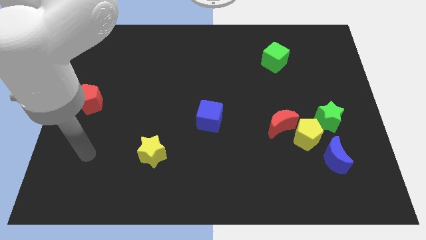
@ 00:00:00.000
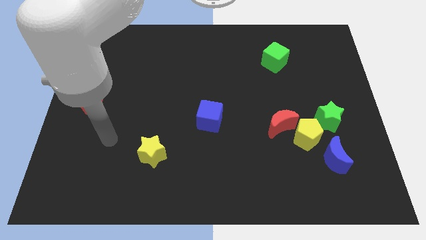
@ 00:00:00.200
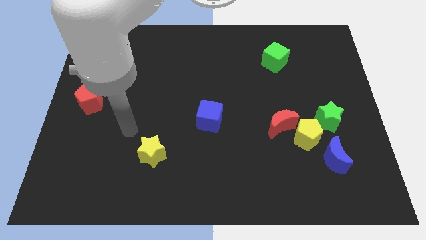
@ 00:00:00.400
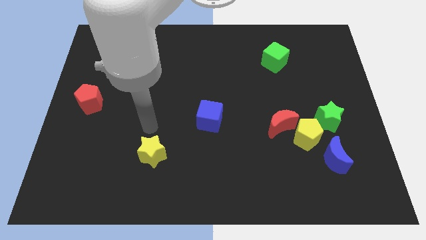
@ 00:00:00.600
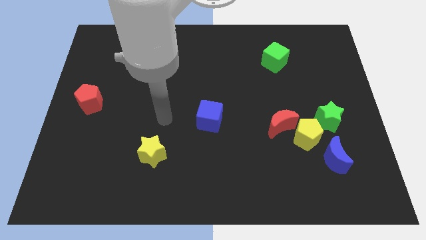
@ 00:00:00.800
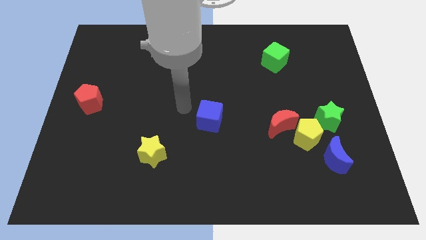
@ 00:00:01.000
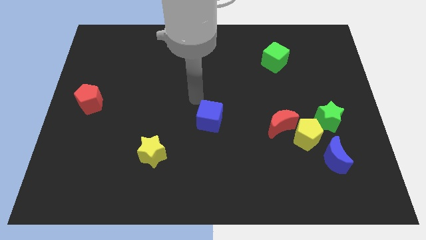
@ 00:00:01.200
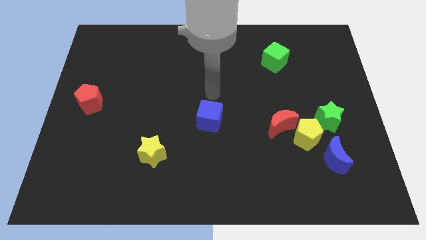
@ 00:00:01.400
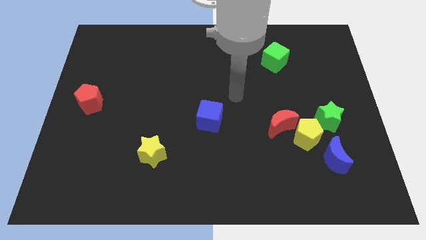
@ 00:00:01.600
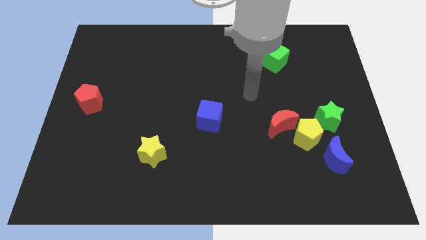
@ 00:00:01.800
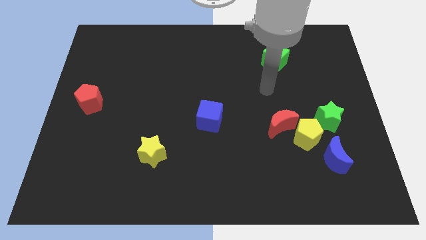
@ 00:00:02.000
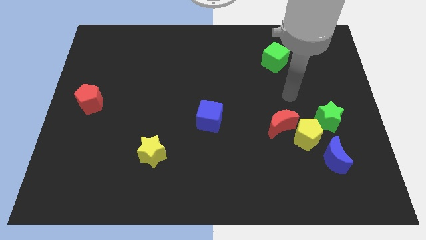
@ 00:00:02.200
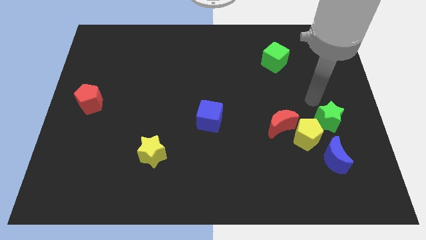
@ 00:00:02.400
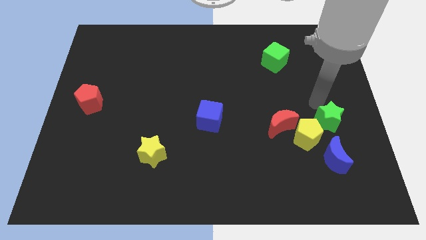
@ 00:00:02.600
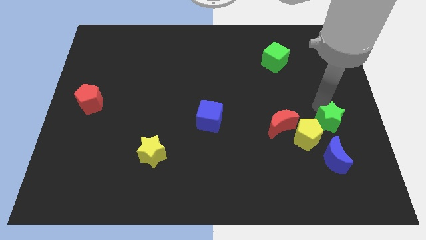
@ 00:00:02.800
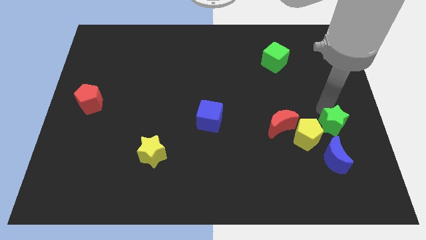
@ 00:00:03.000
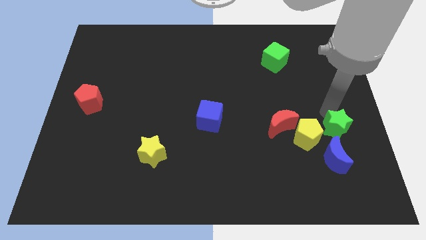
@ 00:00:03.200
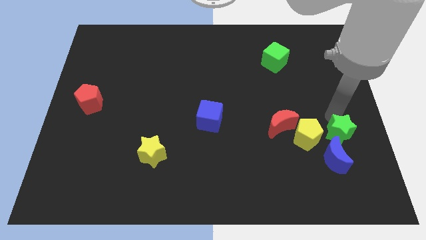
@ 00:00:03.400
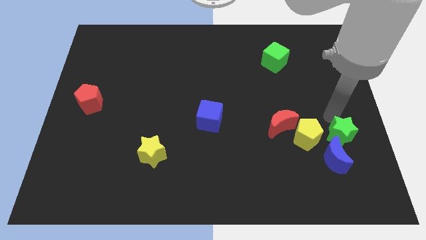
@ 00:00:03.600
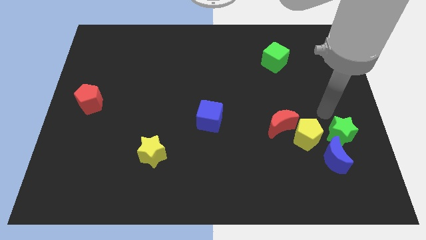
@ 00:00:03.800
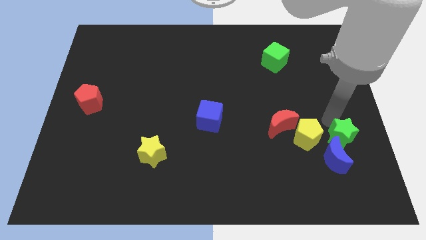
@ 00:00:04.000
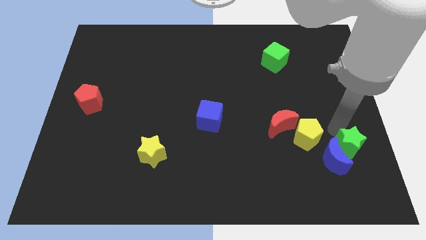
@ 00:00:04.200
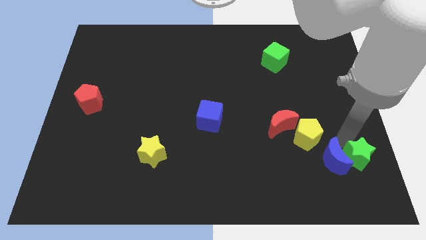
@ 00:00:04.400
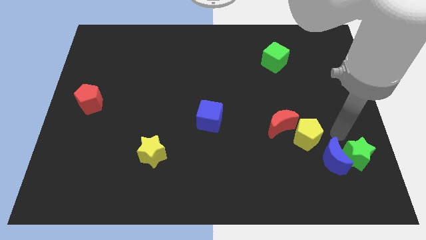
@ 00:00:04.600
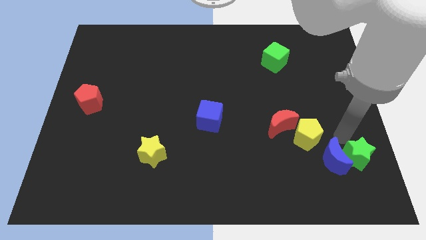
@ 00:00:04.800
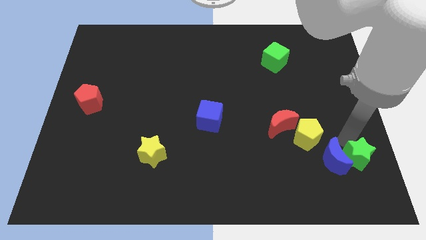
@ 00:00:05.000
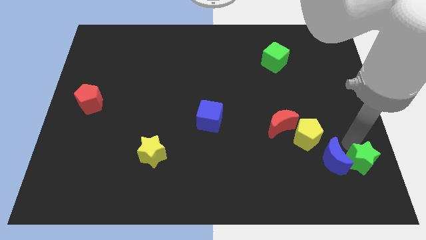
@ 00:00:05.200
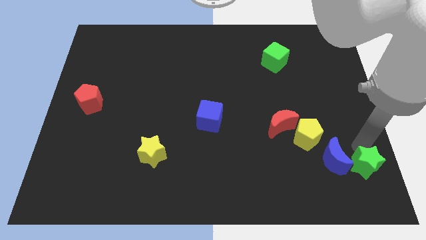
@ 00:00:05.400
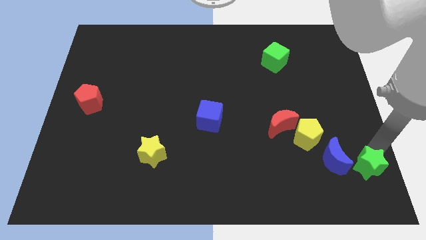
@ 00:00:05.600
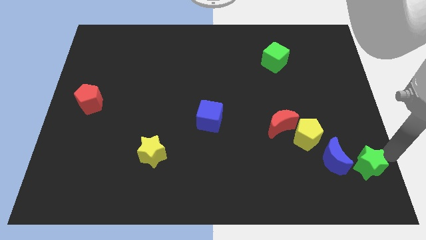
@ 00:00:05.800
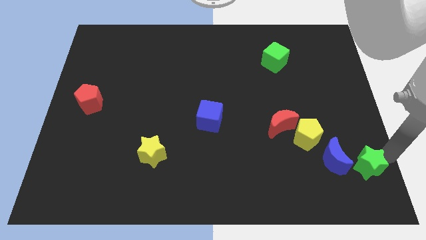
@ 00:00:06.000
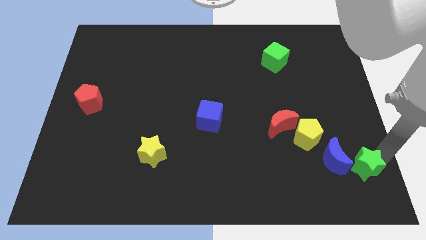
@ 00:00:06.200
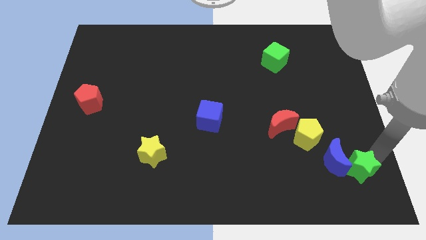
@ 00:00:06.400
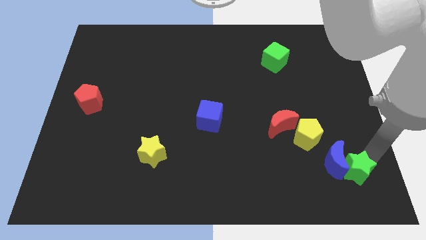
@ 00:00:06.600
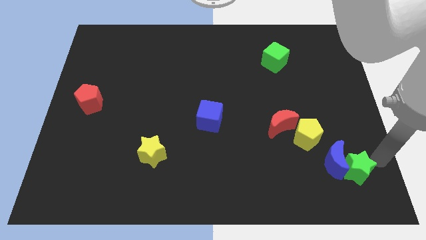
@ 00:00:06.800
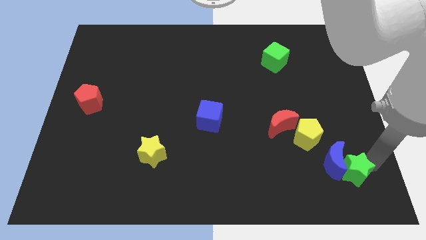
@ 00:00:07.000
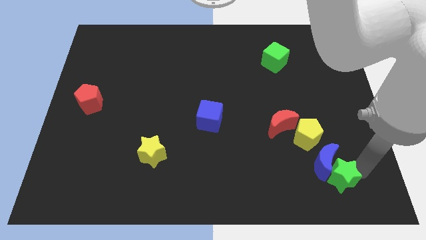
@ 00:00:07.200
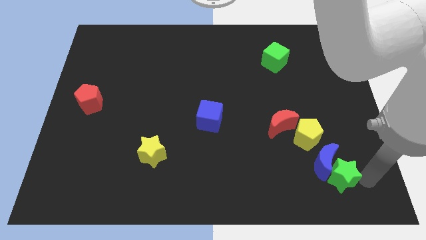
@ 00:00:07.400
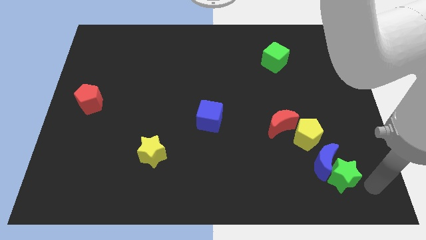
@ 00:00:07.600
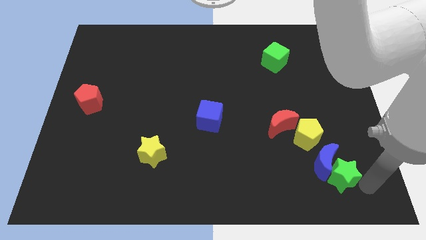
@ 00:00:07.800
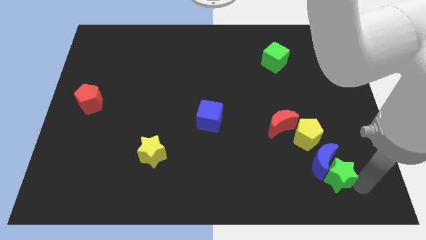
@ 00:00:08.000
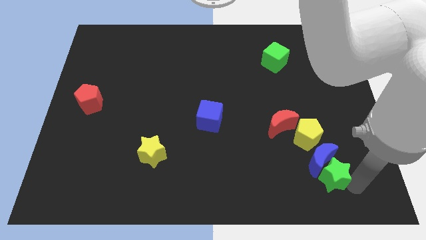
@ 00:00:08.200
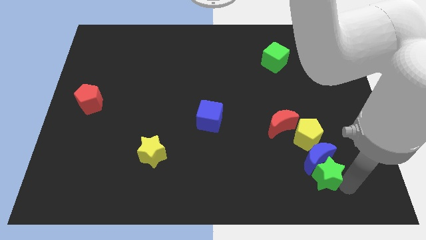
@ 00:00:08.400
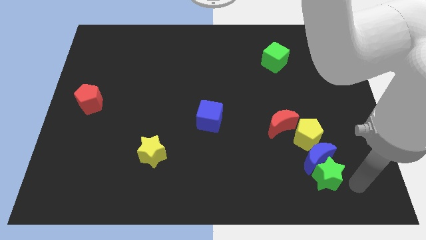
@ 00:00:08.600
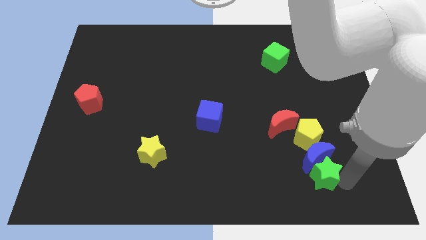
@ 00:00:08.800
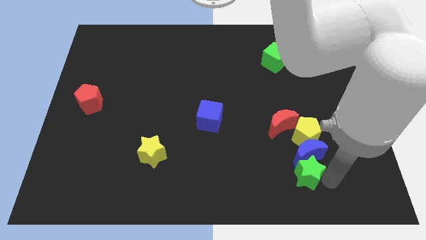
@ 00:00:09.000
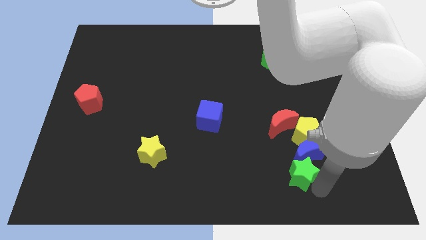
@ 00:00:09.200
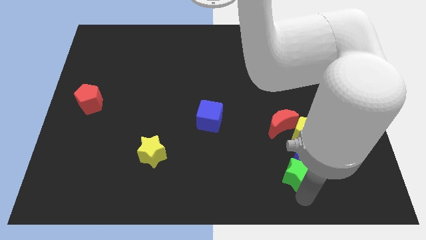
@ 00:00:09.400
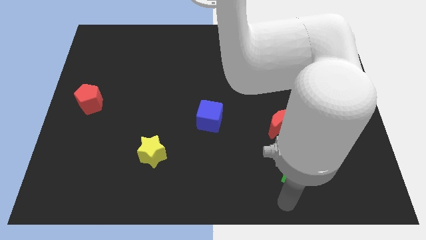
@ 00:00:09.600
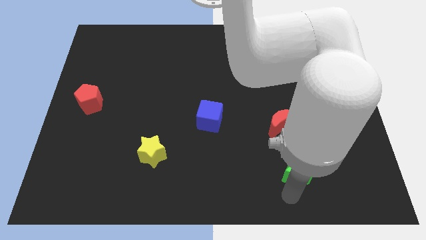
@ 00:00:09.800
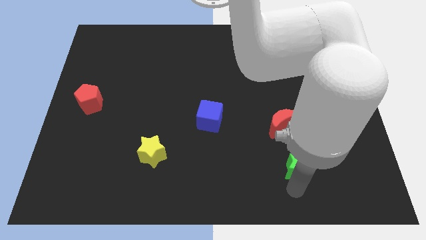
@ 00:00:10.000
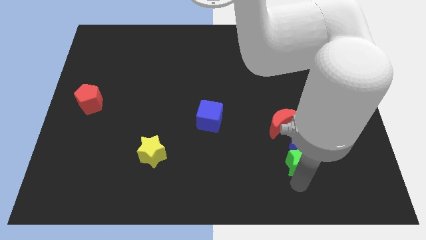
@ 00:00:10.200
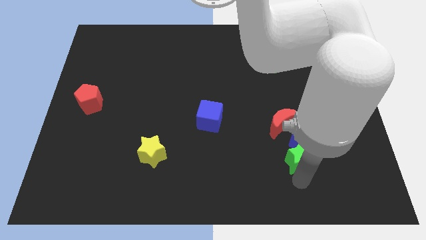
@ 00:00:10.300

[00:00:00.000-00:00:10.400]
move the green star diagonally down and to the right of the red moon
